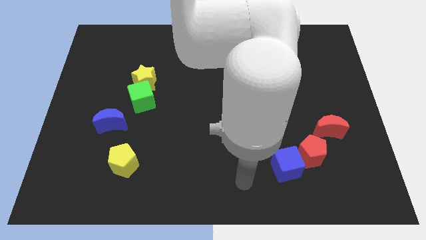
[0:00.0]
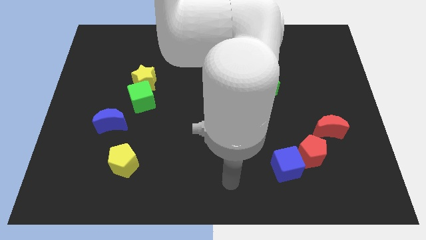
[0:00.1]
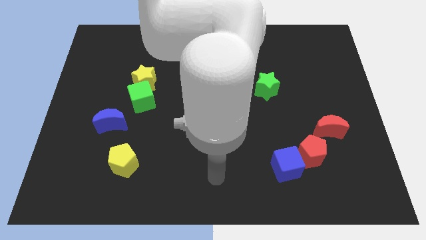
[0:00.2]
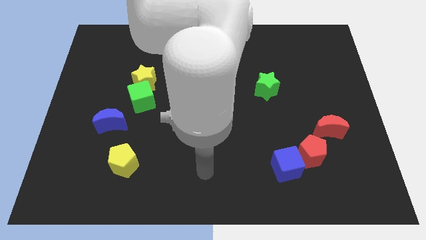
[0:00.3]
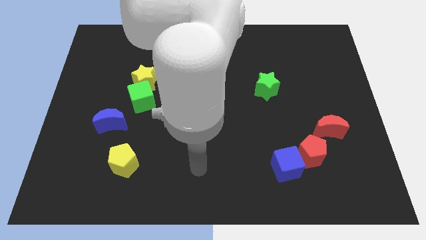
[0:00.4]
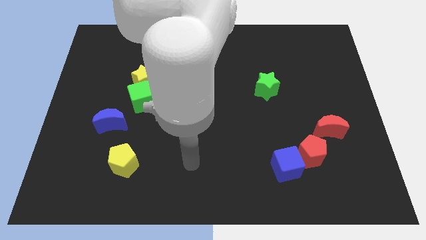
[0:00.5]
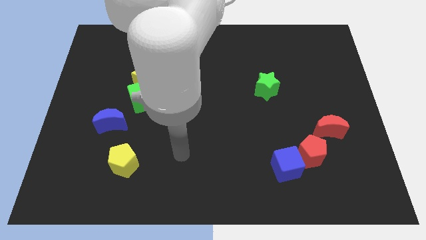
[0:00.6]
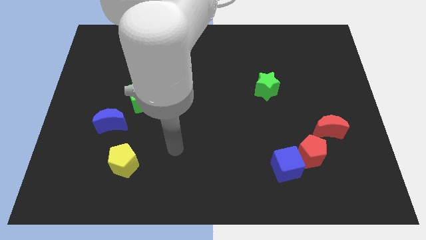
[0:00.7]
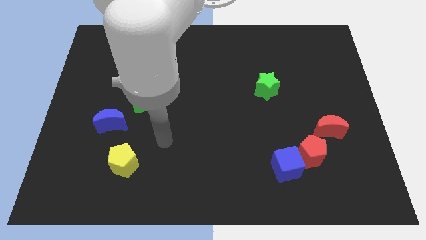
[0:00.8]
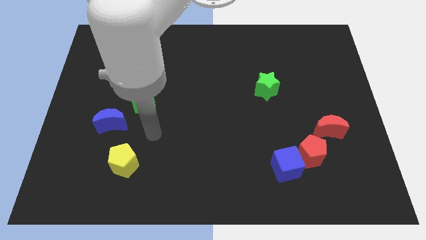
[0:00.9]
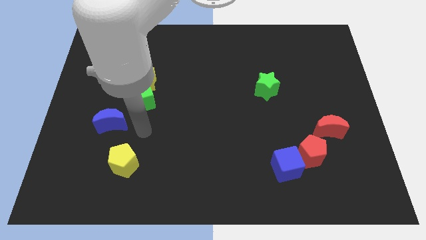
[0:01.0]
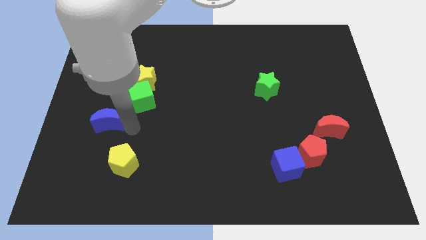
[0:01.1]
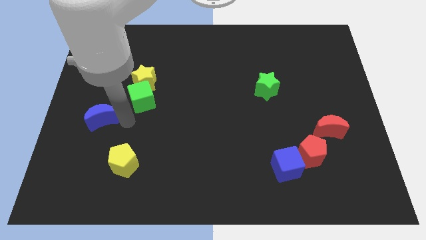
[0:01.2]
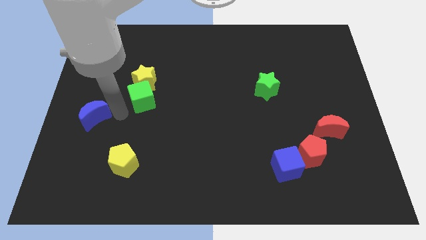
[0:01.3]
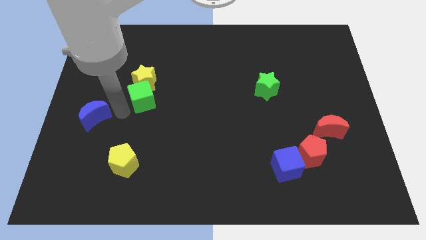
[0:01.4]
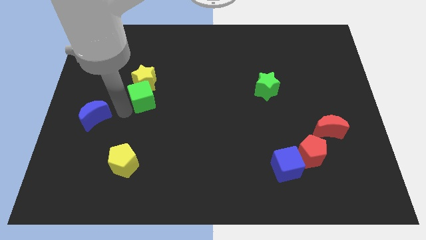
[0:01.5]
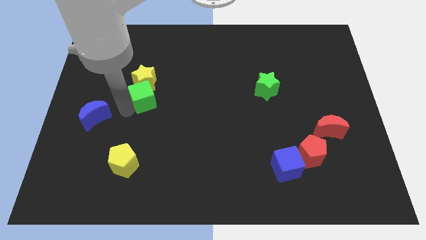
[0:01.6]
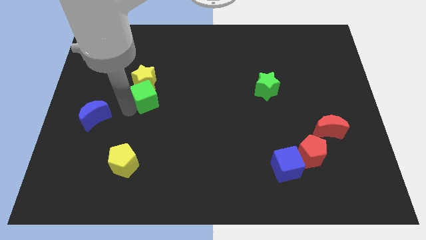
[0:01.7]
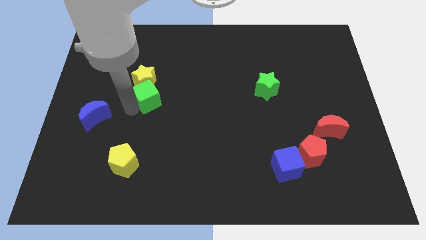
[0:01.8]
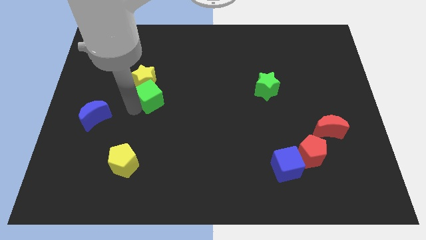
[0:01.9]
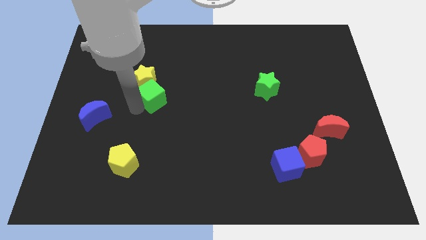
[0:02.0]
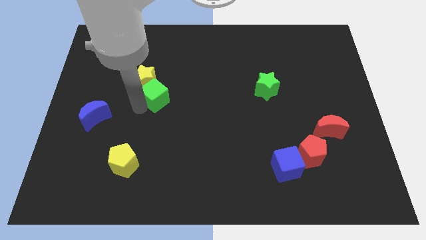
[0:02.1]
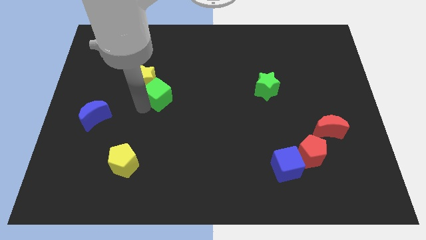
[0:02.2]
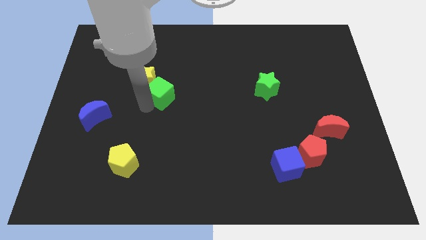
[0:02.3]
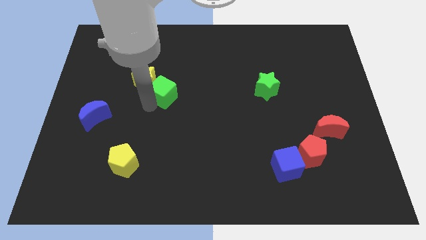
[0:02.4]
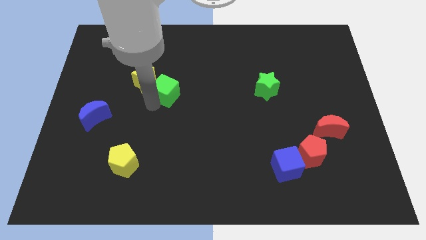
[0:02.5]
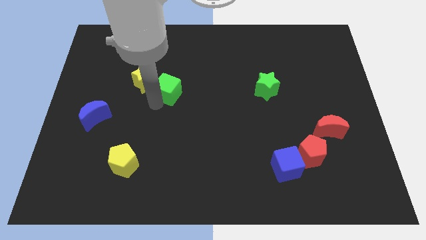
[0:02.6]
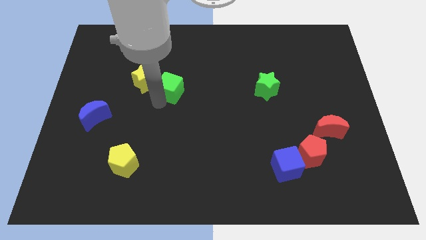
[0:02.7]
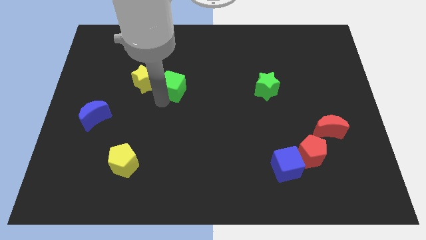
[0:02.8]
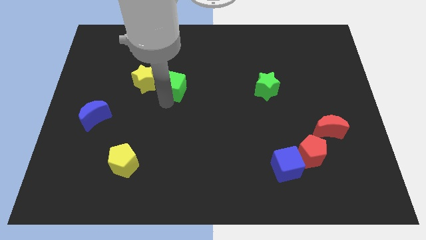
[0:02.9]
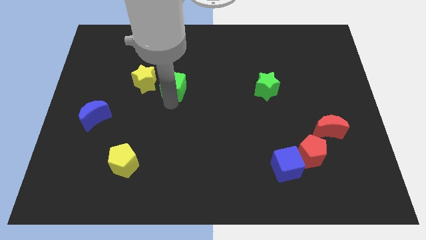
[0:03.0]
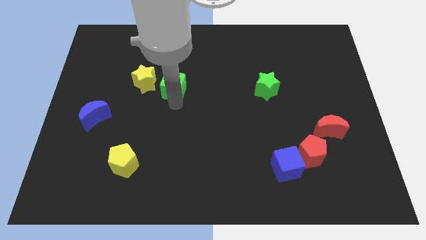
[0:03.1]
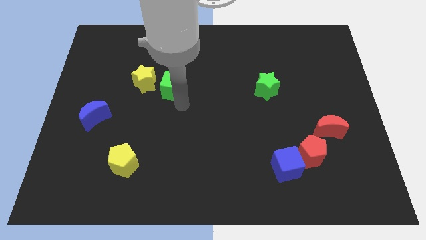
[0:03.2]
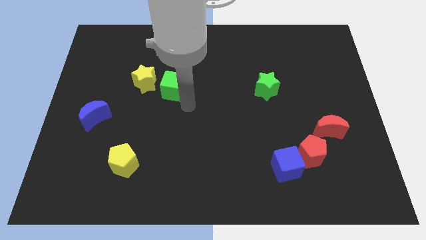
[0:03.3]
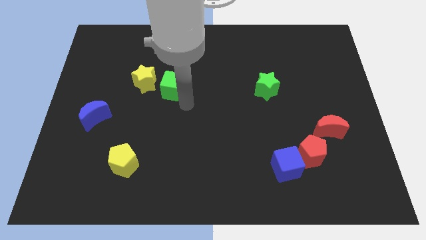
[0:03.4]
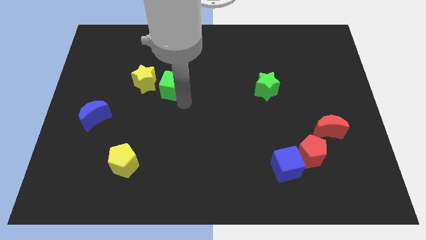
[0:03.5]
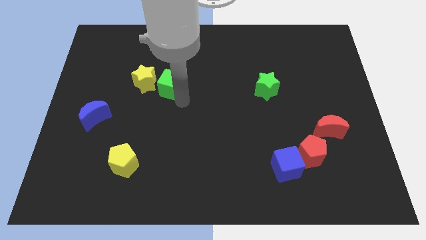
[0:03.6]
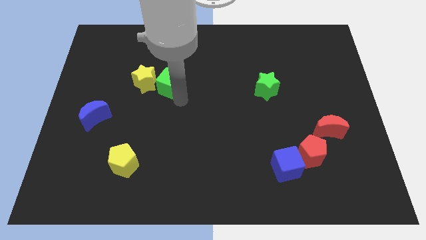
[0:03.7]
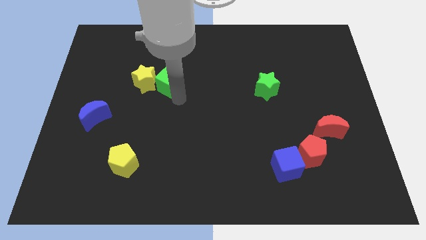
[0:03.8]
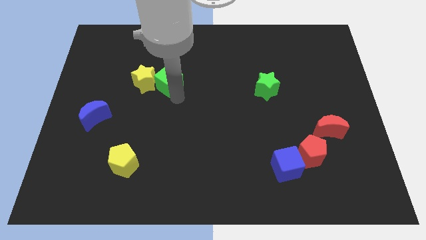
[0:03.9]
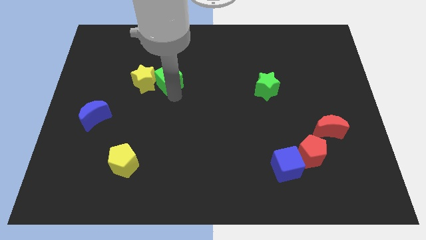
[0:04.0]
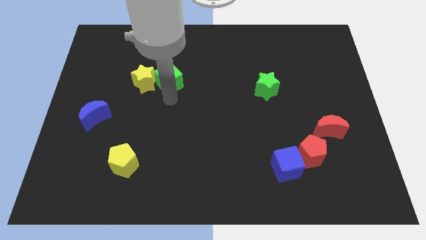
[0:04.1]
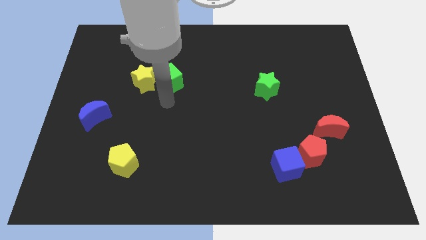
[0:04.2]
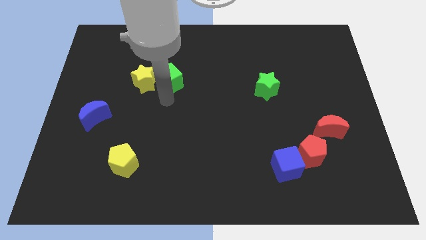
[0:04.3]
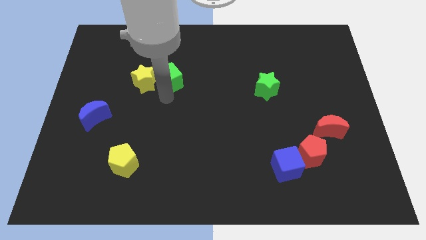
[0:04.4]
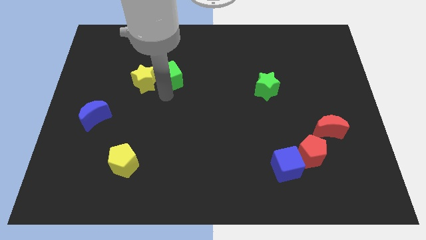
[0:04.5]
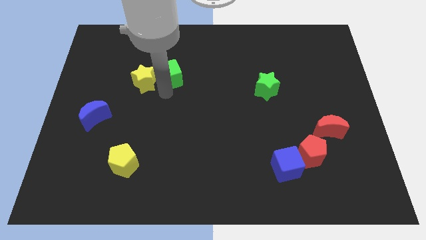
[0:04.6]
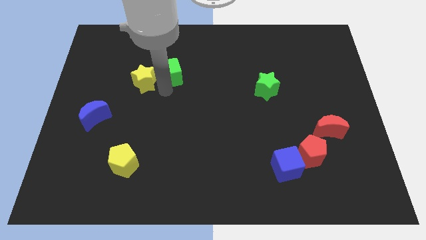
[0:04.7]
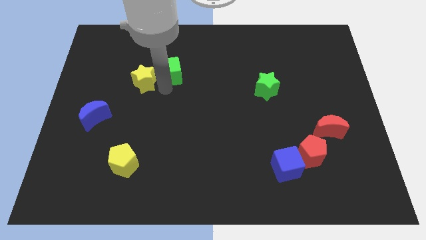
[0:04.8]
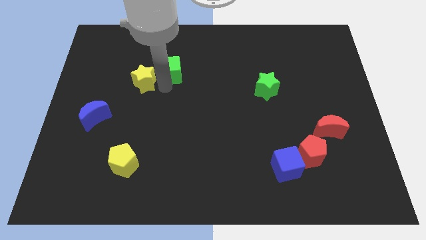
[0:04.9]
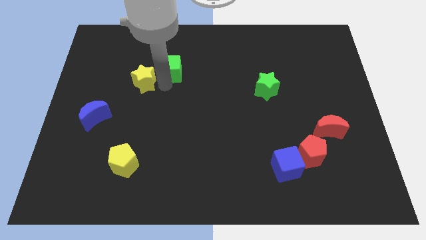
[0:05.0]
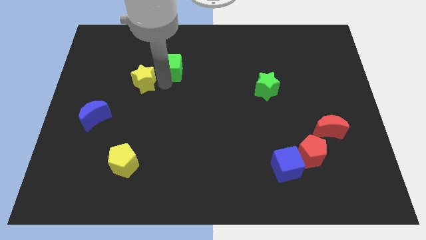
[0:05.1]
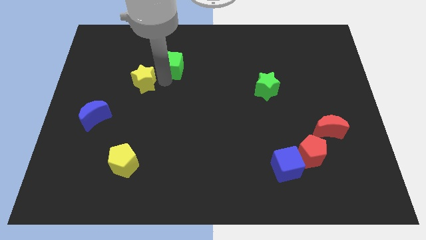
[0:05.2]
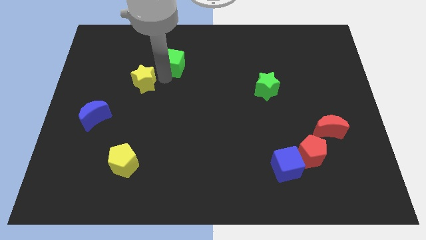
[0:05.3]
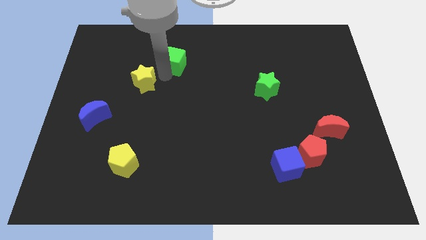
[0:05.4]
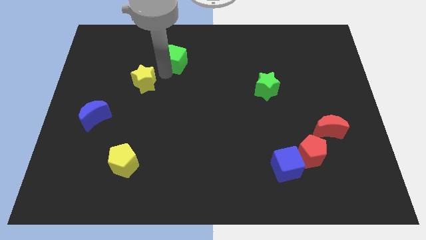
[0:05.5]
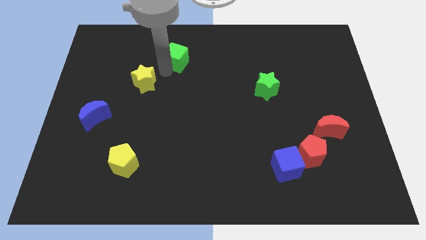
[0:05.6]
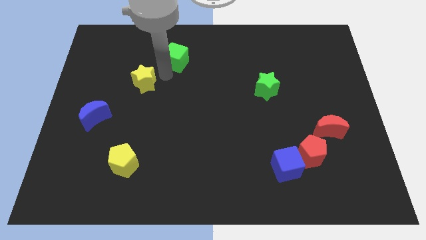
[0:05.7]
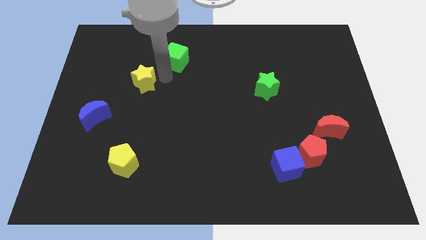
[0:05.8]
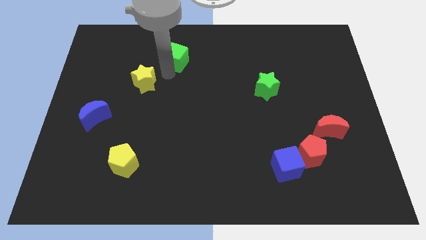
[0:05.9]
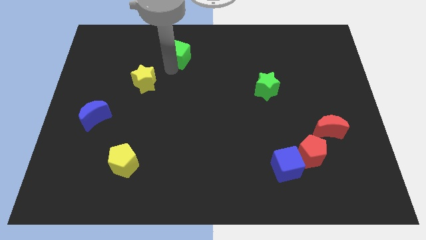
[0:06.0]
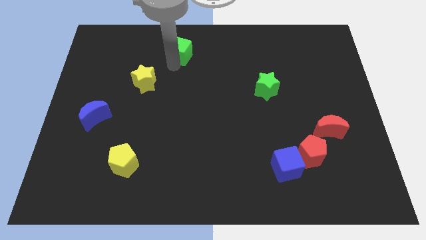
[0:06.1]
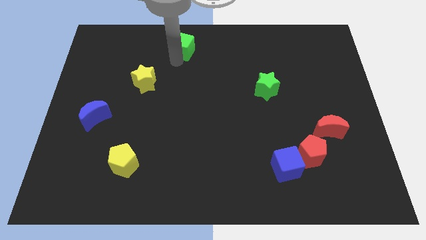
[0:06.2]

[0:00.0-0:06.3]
slide the green cube to the top side
